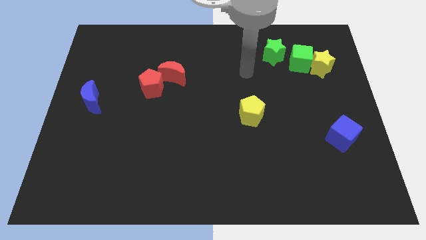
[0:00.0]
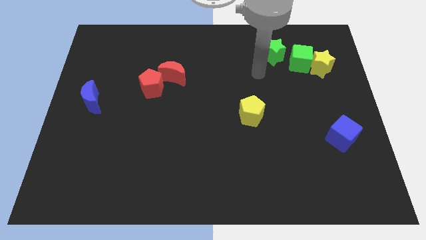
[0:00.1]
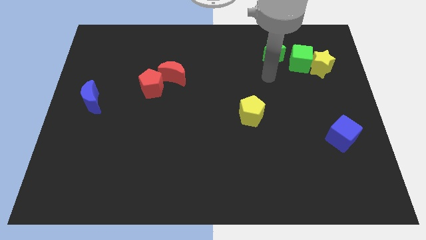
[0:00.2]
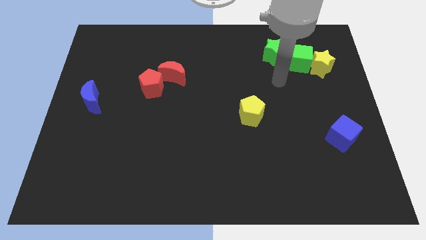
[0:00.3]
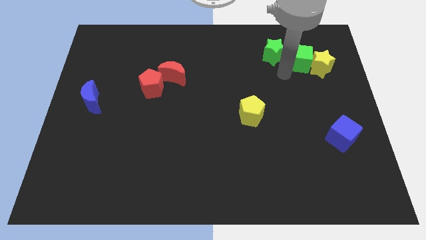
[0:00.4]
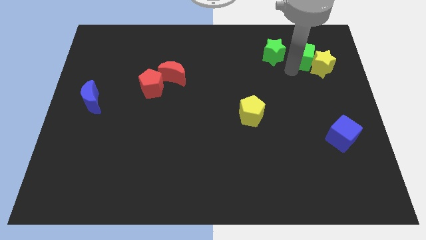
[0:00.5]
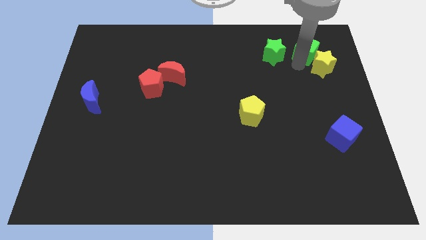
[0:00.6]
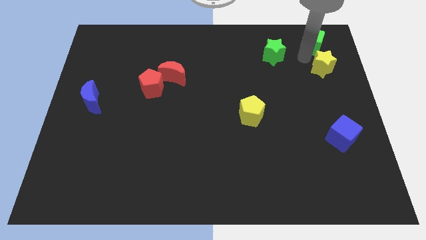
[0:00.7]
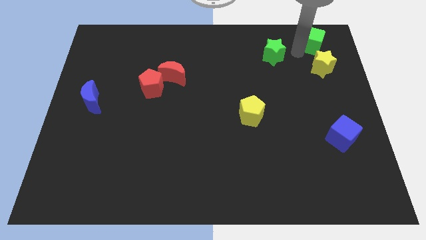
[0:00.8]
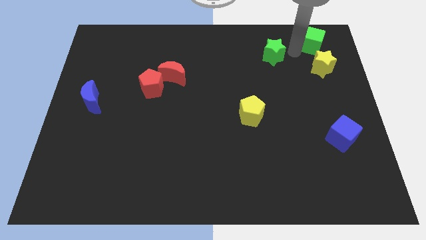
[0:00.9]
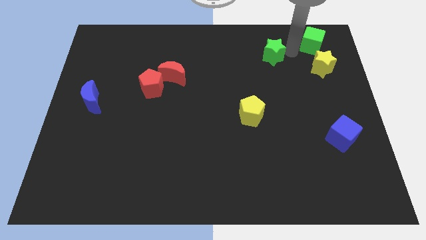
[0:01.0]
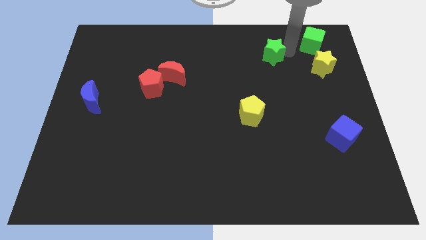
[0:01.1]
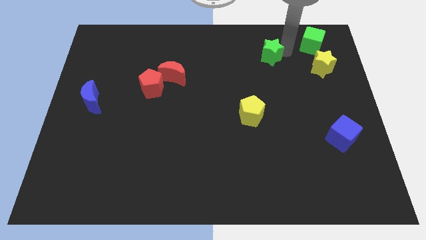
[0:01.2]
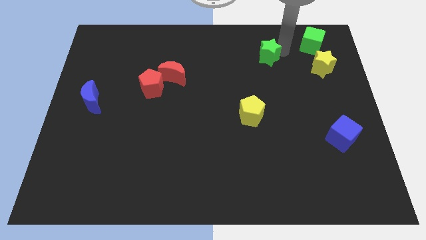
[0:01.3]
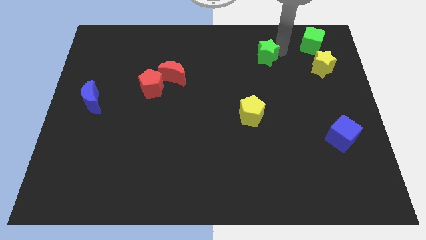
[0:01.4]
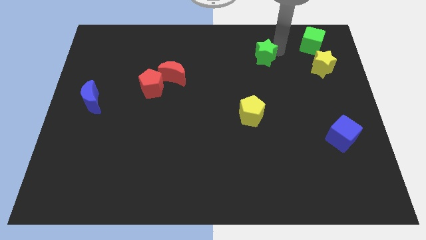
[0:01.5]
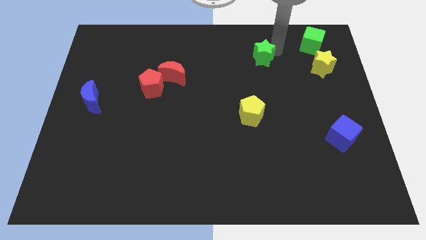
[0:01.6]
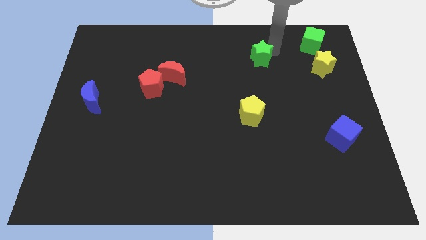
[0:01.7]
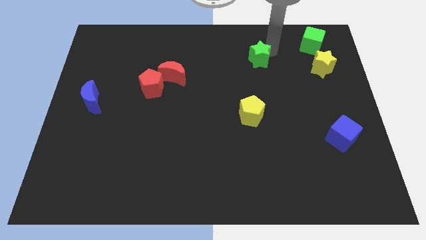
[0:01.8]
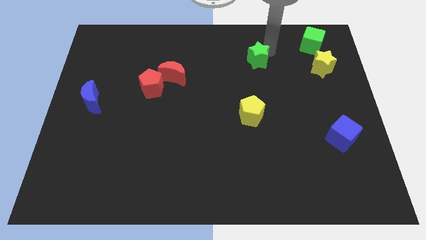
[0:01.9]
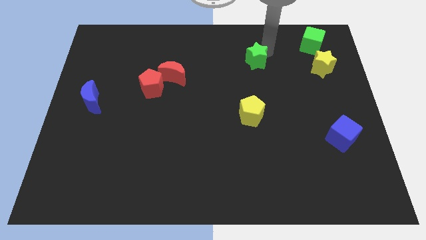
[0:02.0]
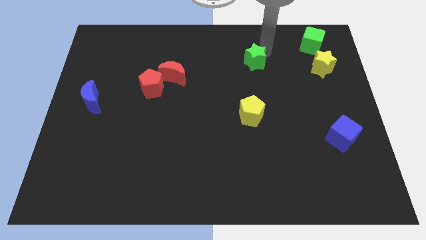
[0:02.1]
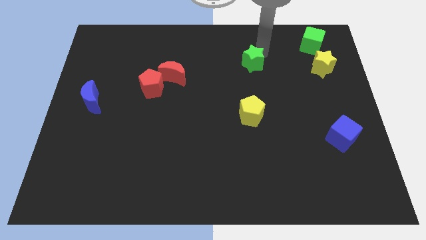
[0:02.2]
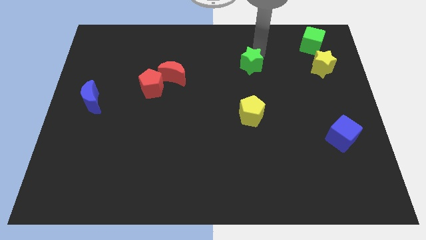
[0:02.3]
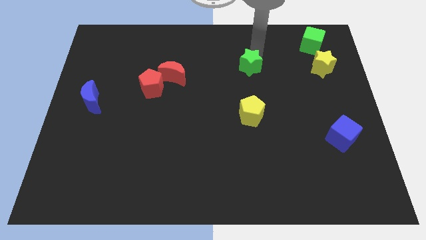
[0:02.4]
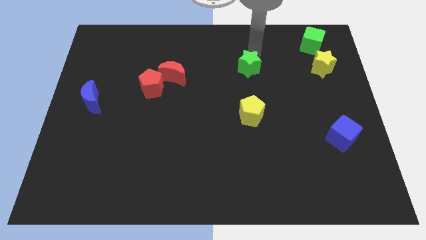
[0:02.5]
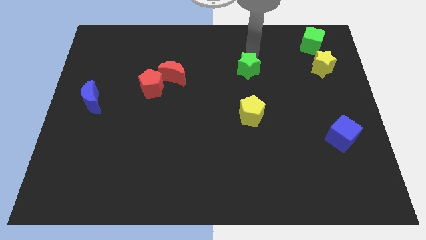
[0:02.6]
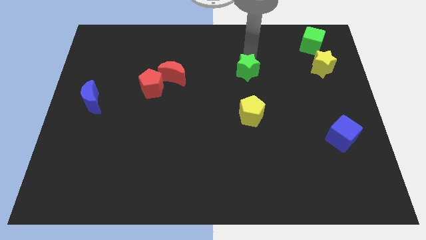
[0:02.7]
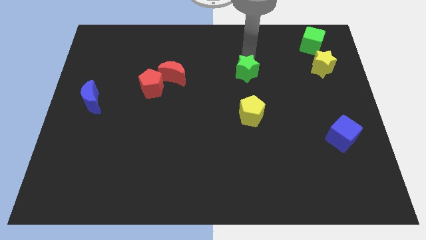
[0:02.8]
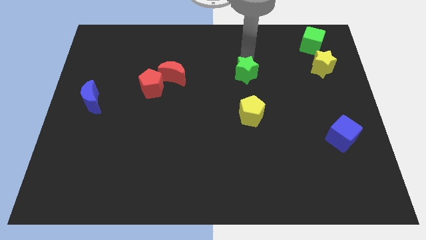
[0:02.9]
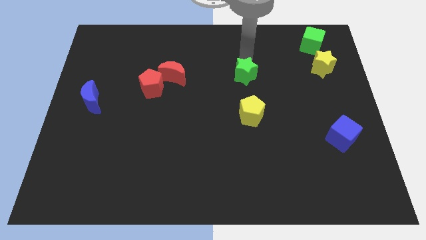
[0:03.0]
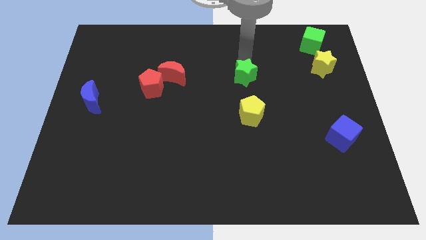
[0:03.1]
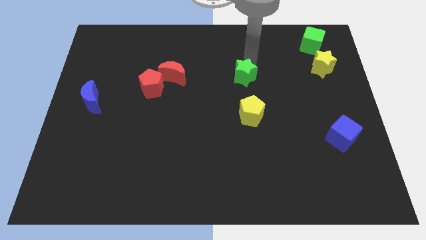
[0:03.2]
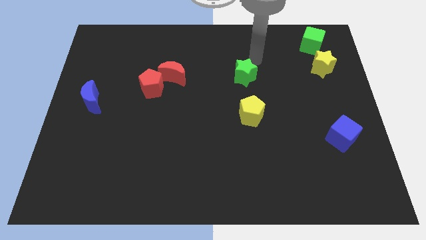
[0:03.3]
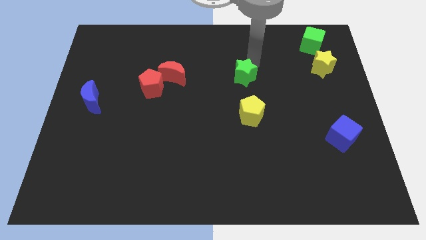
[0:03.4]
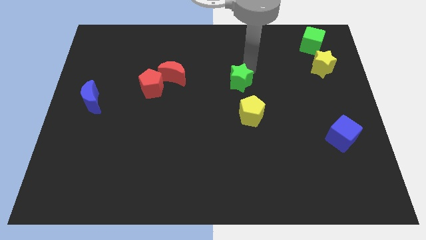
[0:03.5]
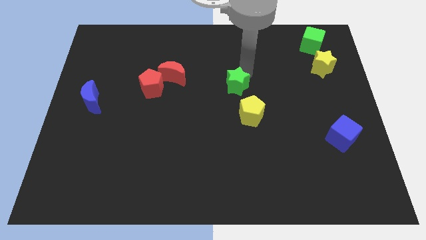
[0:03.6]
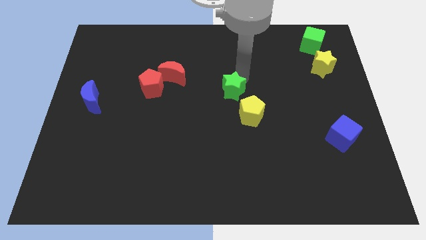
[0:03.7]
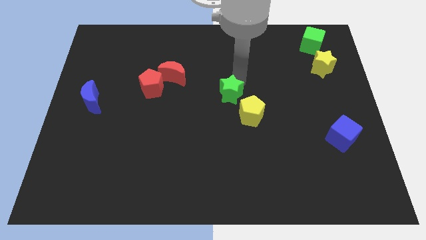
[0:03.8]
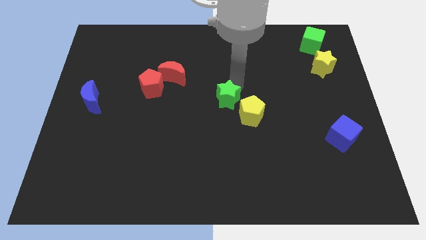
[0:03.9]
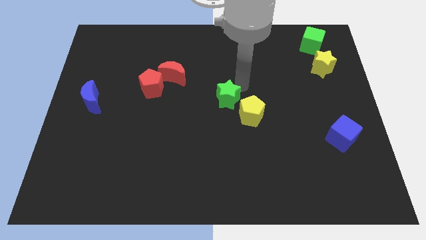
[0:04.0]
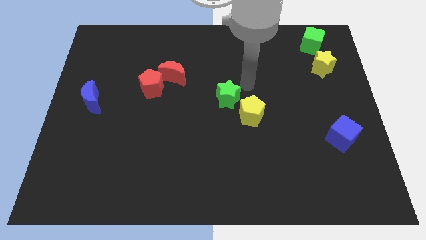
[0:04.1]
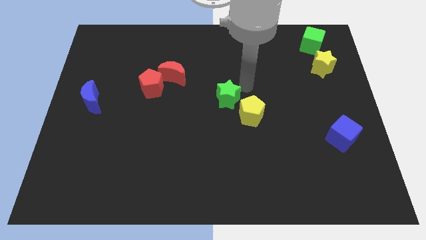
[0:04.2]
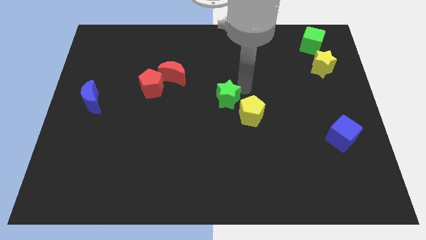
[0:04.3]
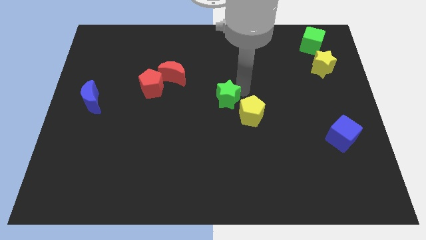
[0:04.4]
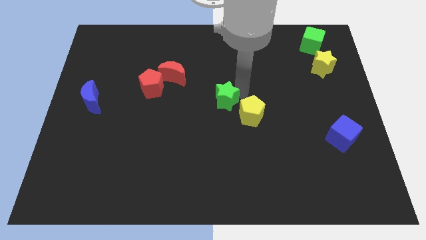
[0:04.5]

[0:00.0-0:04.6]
push the green star down and then to the left

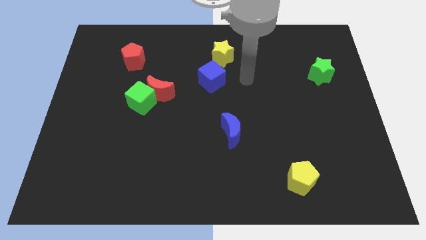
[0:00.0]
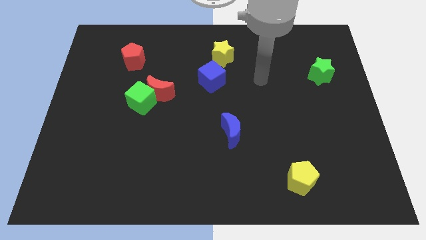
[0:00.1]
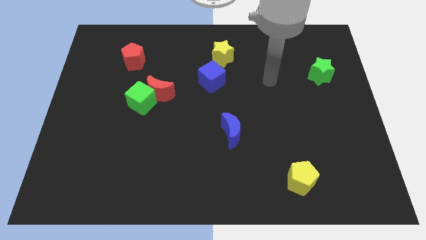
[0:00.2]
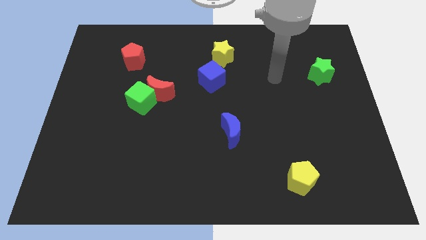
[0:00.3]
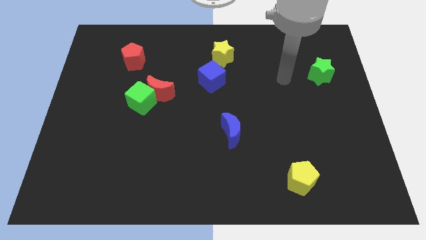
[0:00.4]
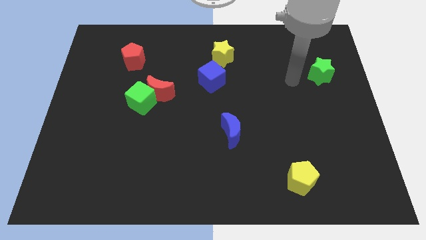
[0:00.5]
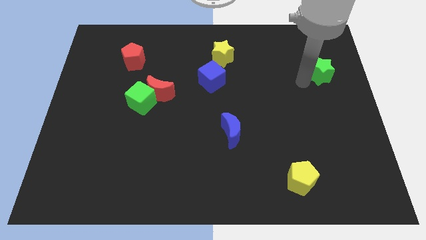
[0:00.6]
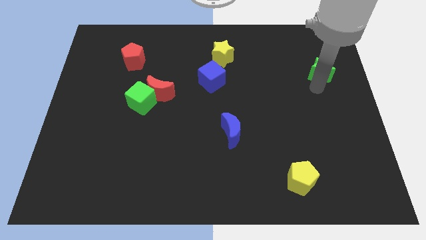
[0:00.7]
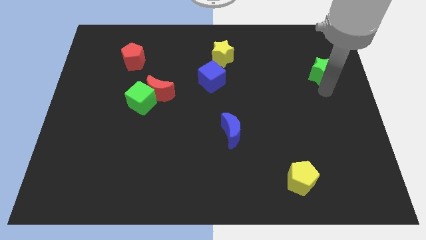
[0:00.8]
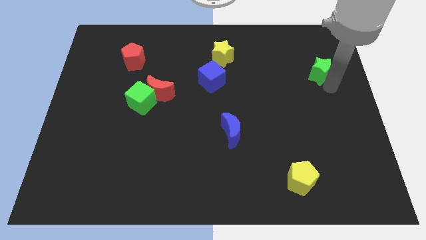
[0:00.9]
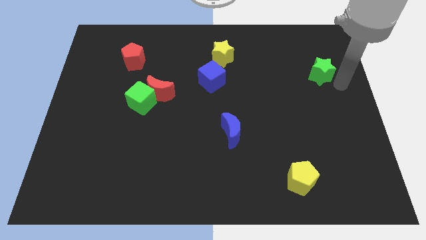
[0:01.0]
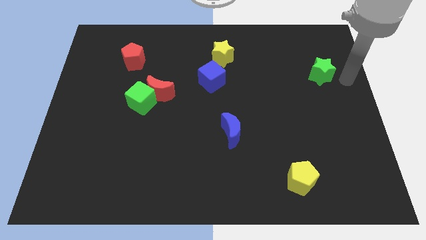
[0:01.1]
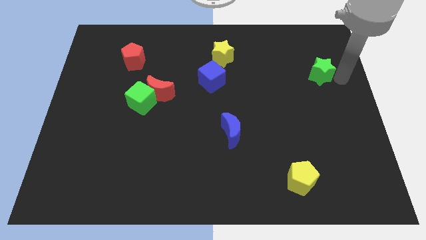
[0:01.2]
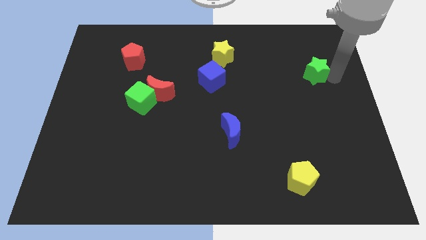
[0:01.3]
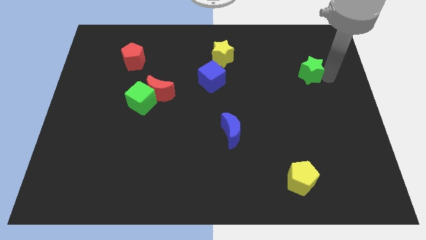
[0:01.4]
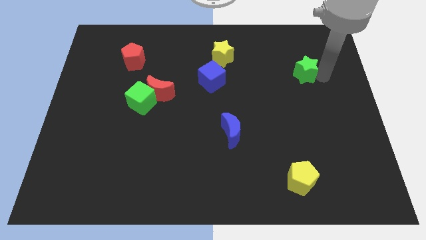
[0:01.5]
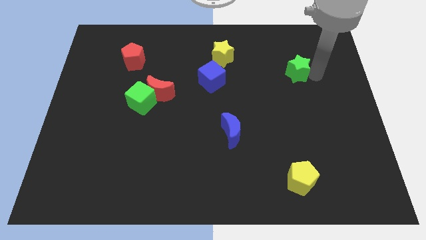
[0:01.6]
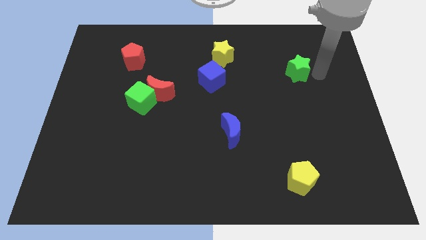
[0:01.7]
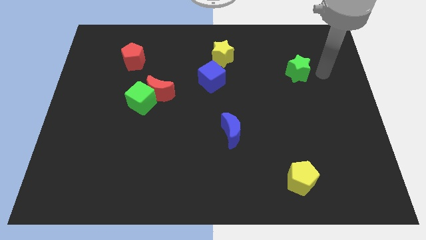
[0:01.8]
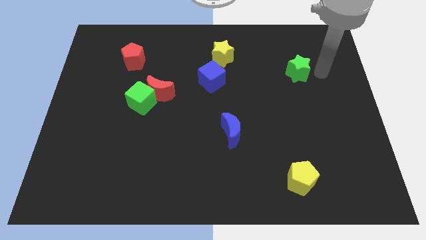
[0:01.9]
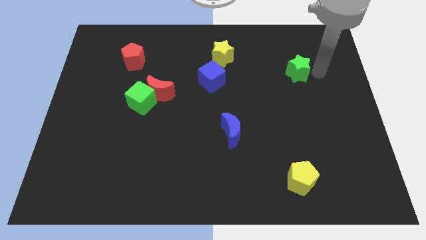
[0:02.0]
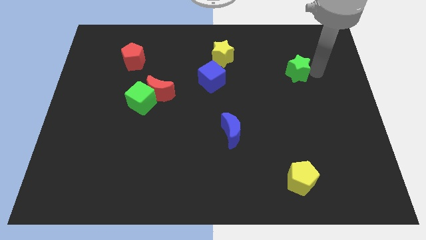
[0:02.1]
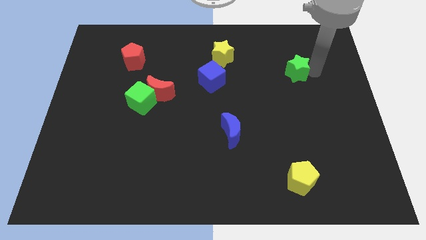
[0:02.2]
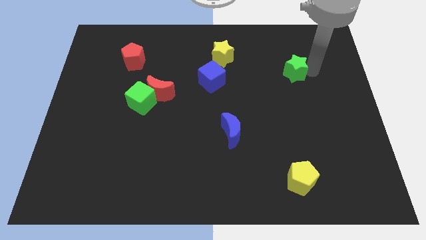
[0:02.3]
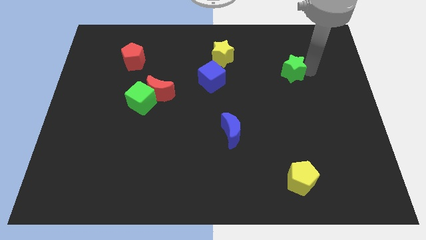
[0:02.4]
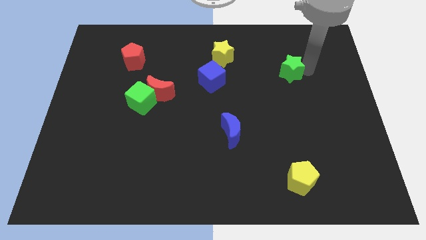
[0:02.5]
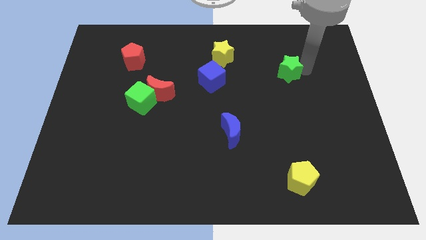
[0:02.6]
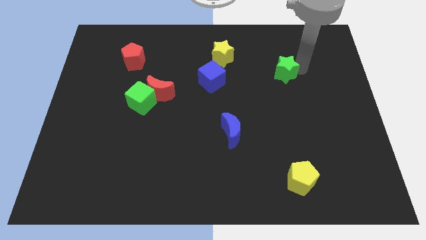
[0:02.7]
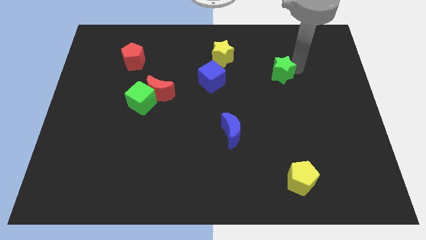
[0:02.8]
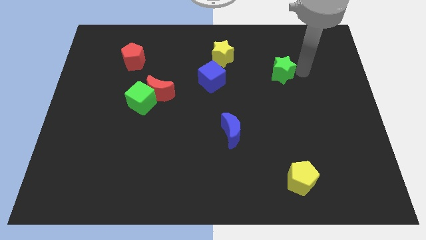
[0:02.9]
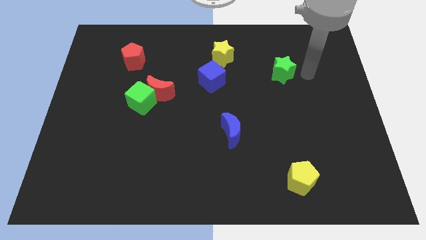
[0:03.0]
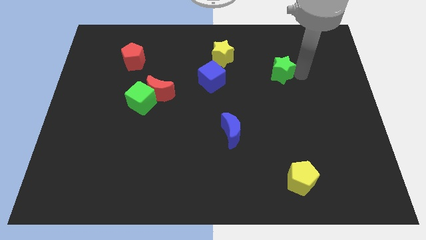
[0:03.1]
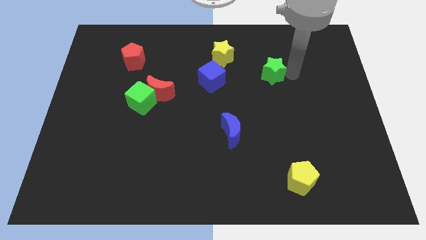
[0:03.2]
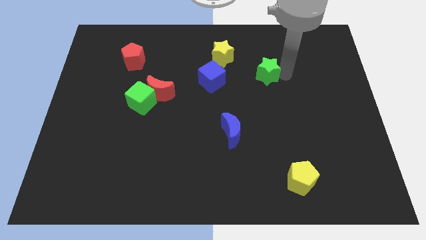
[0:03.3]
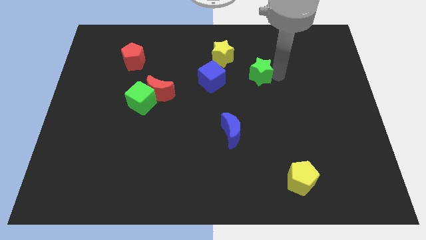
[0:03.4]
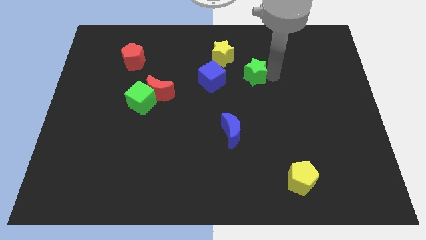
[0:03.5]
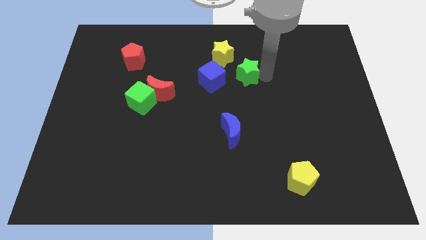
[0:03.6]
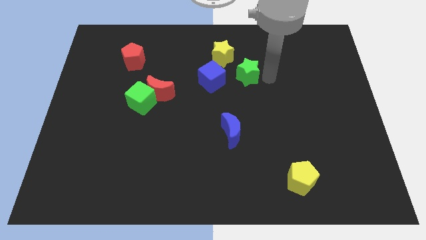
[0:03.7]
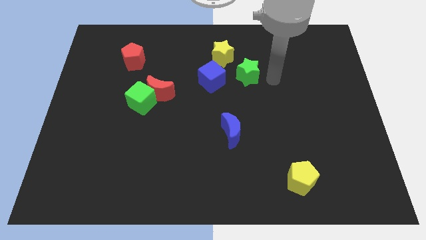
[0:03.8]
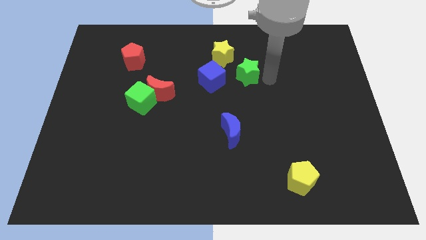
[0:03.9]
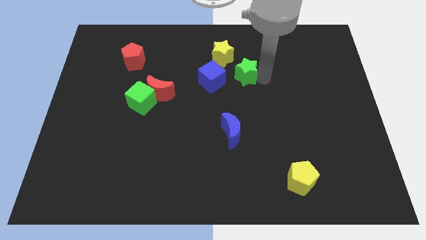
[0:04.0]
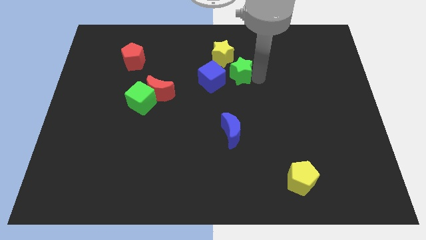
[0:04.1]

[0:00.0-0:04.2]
move the green star left
